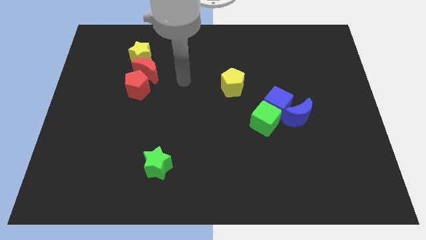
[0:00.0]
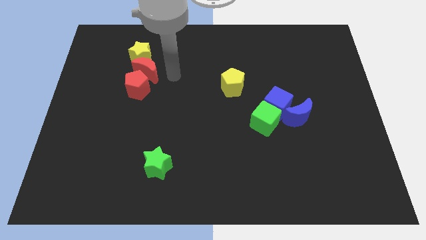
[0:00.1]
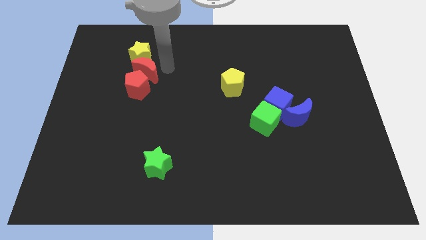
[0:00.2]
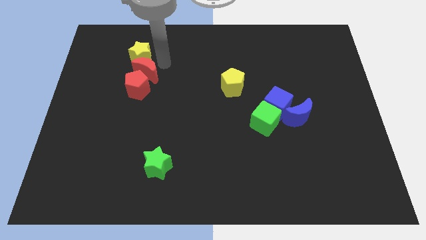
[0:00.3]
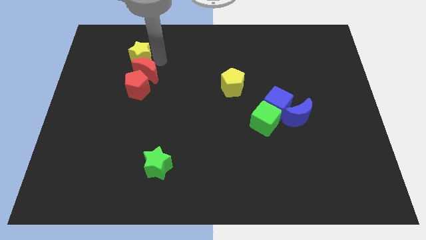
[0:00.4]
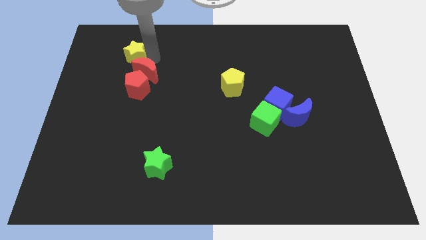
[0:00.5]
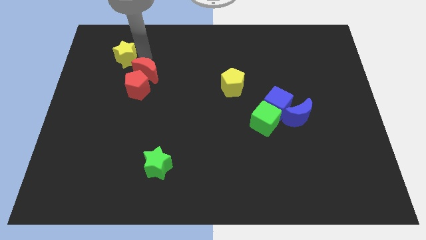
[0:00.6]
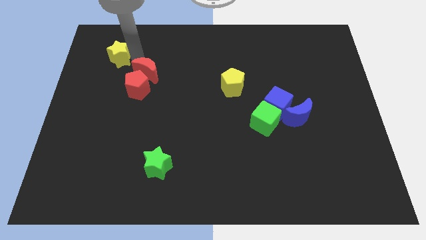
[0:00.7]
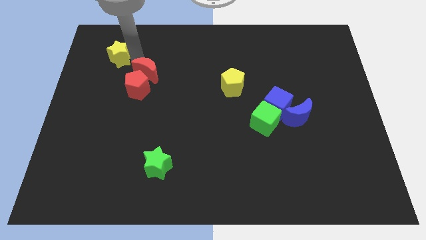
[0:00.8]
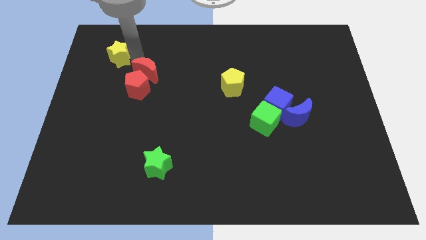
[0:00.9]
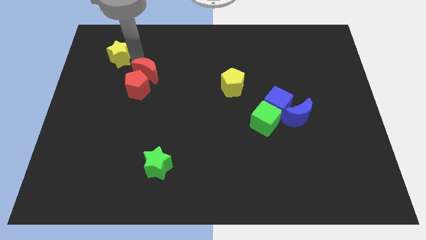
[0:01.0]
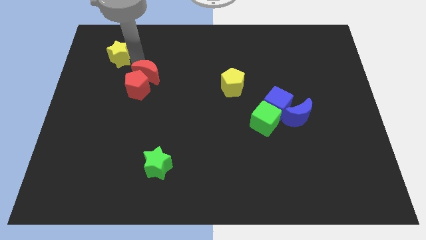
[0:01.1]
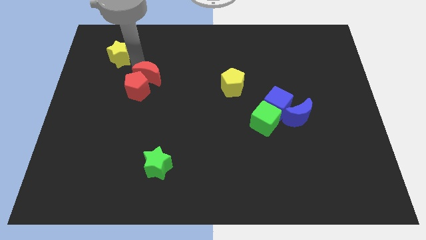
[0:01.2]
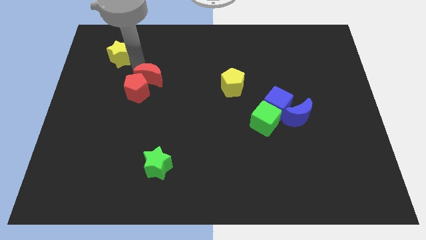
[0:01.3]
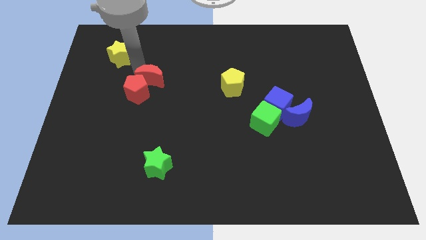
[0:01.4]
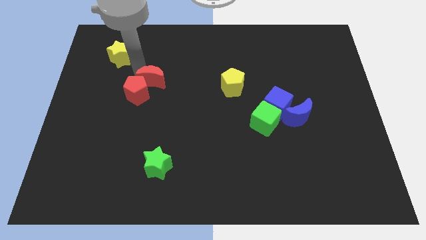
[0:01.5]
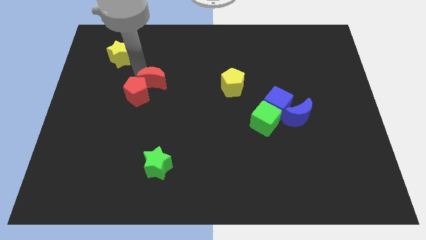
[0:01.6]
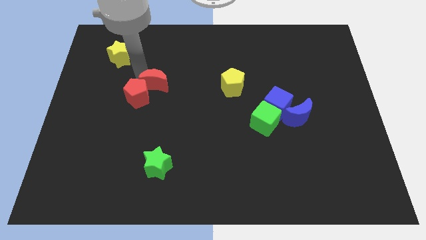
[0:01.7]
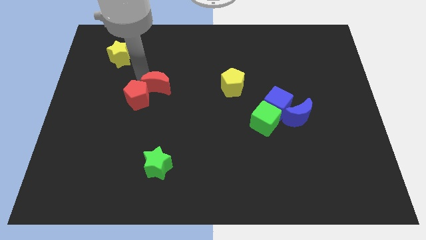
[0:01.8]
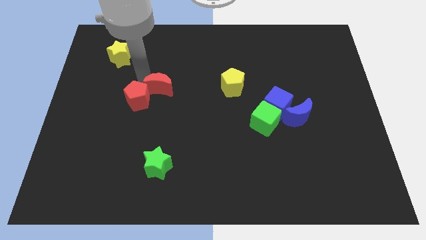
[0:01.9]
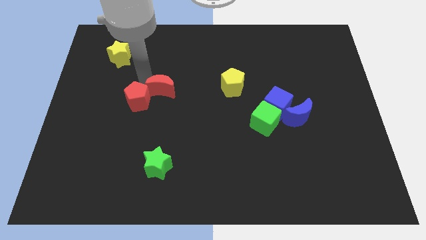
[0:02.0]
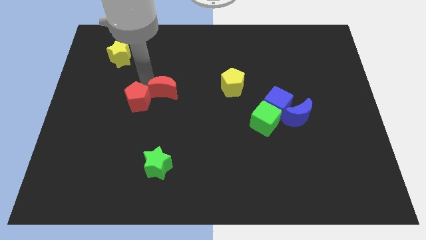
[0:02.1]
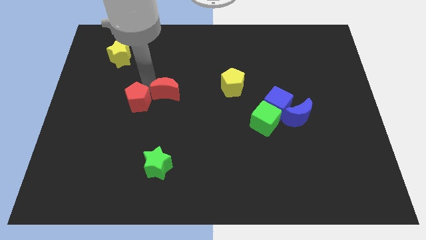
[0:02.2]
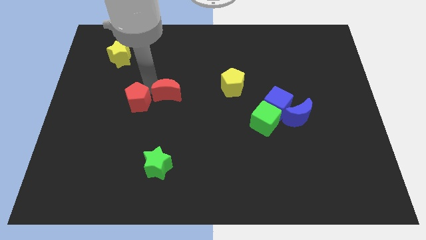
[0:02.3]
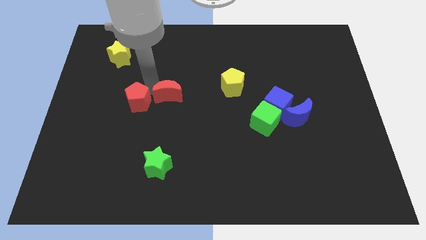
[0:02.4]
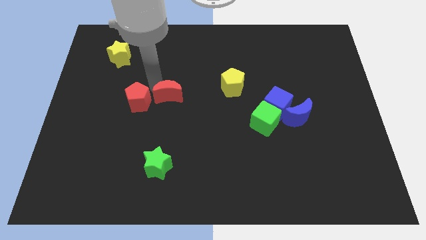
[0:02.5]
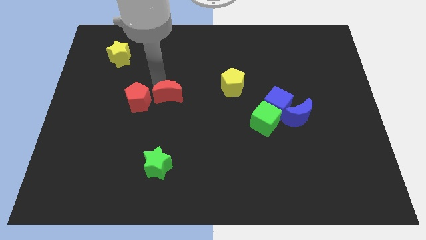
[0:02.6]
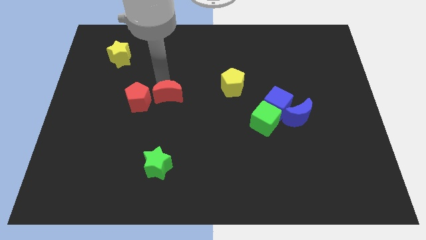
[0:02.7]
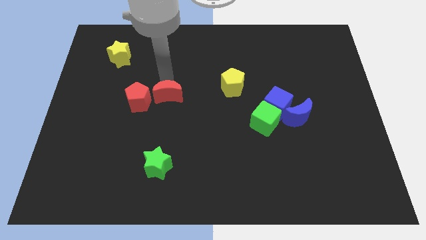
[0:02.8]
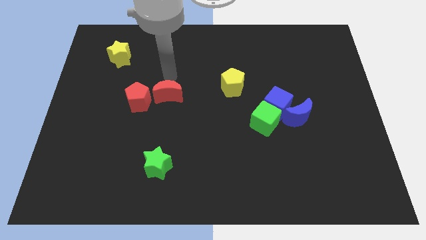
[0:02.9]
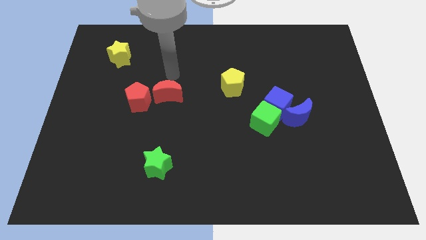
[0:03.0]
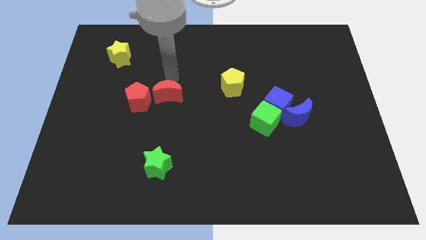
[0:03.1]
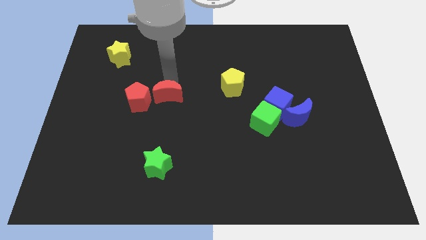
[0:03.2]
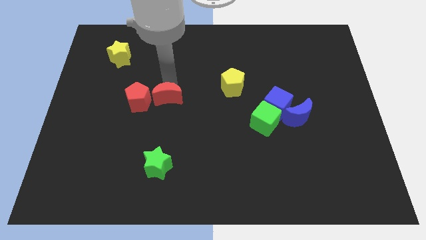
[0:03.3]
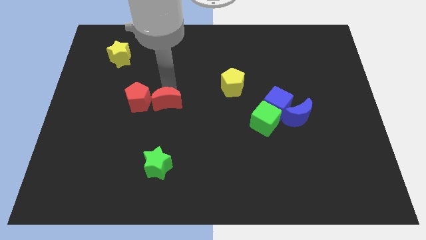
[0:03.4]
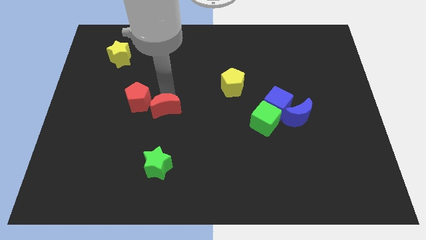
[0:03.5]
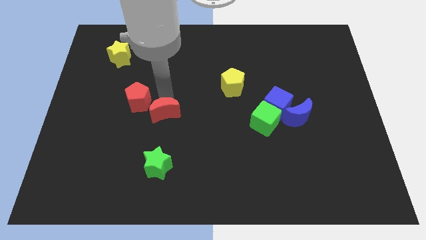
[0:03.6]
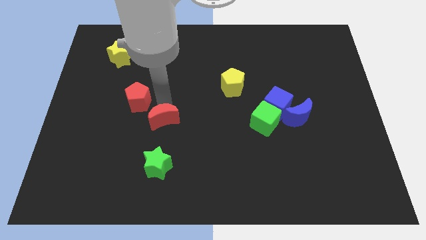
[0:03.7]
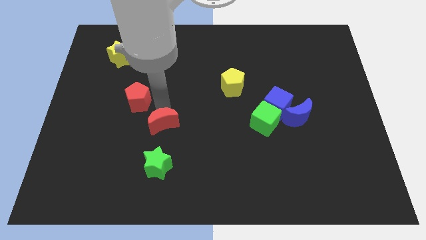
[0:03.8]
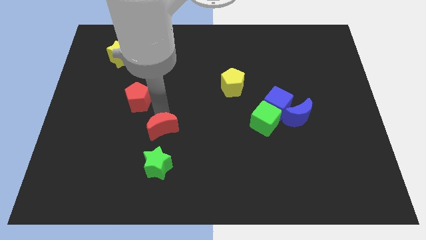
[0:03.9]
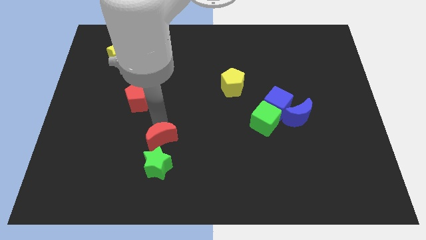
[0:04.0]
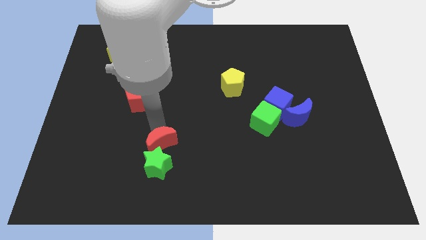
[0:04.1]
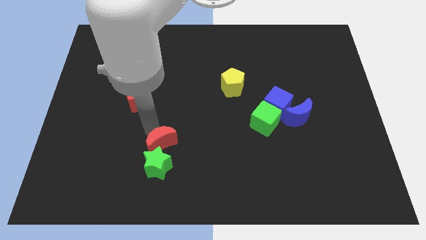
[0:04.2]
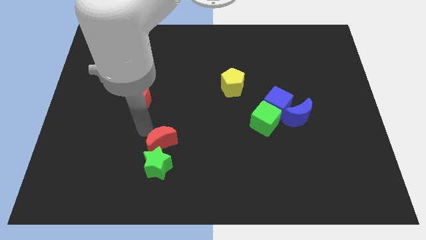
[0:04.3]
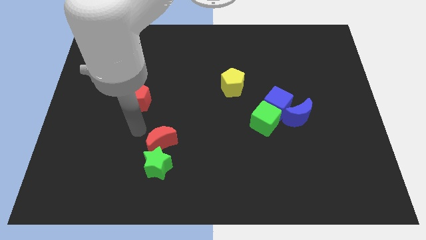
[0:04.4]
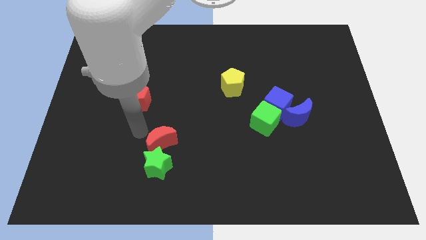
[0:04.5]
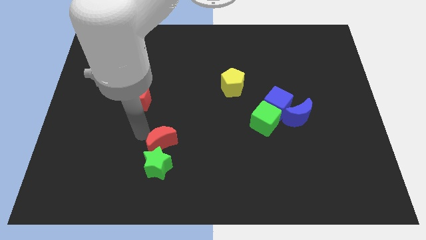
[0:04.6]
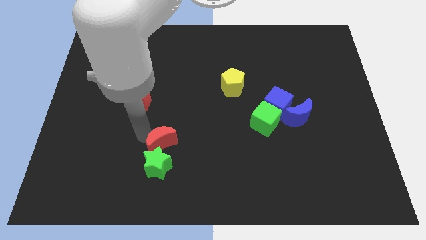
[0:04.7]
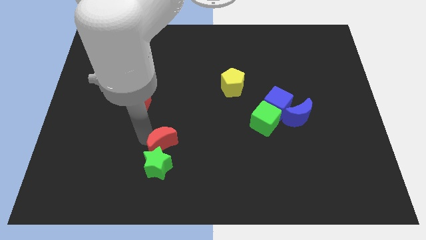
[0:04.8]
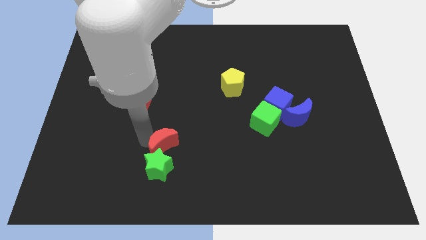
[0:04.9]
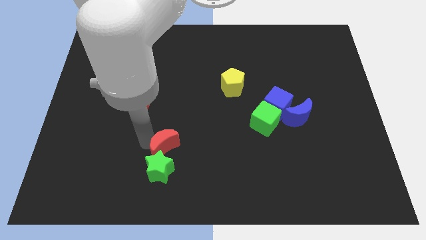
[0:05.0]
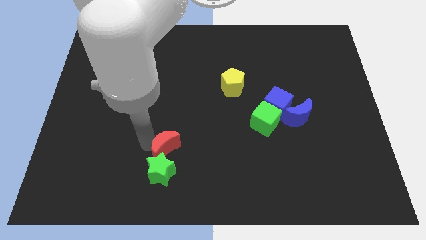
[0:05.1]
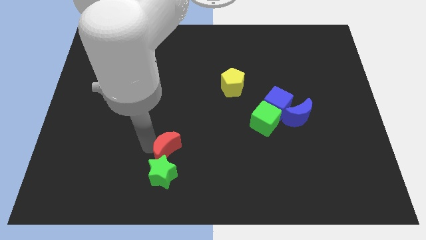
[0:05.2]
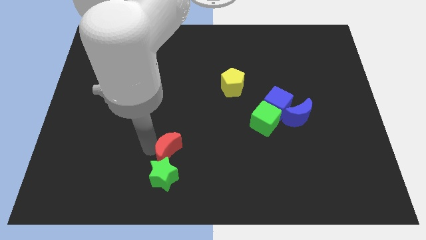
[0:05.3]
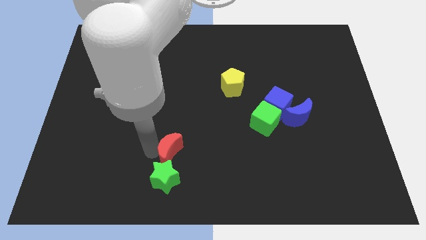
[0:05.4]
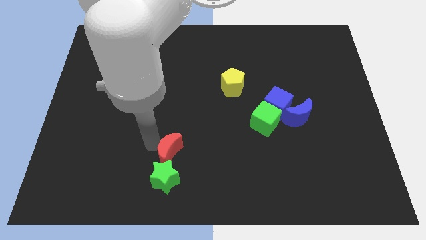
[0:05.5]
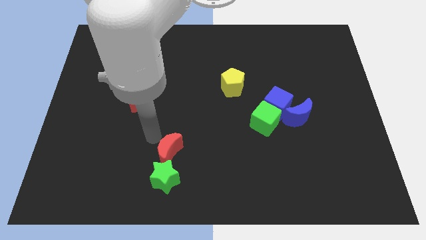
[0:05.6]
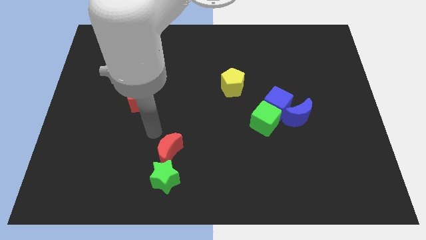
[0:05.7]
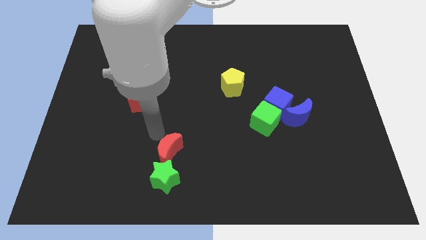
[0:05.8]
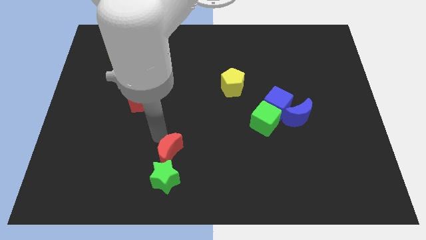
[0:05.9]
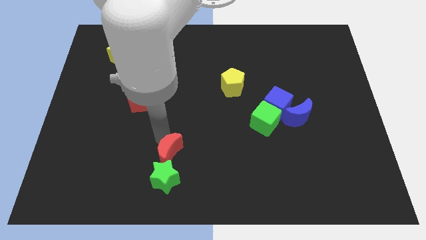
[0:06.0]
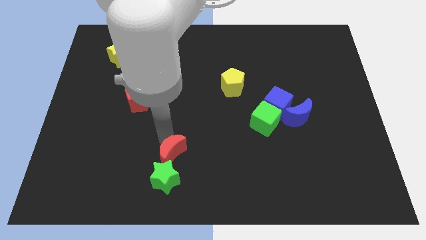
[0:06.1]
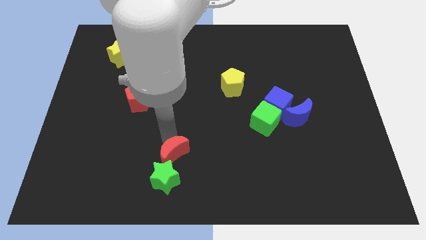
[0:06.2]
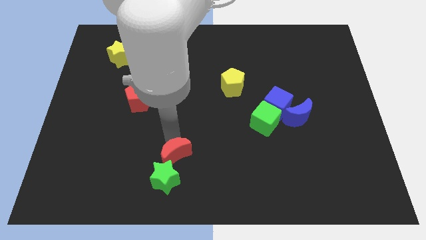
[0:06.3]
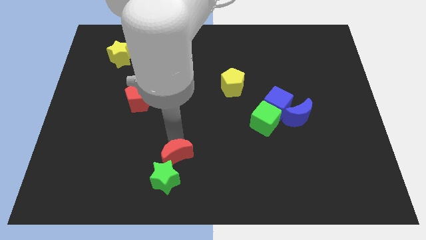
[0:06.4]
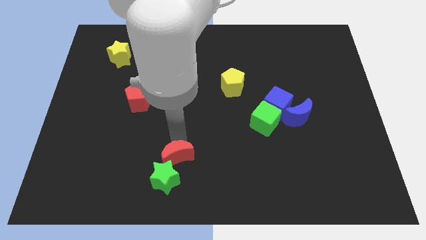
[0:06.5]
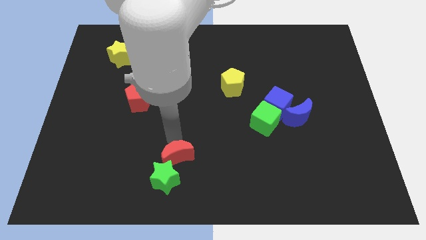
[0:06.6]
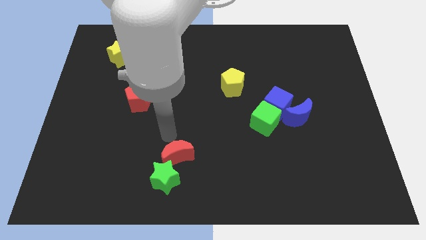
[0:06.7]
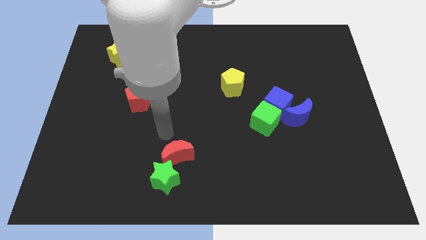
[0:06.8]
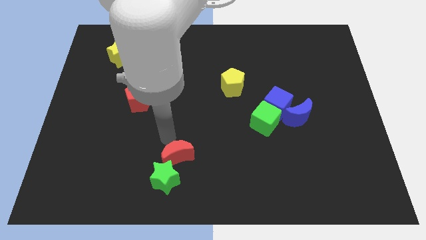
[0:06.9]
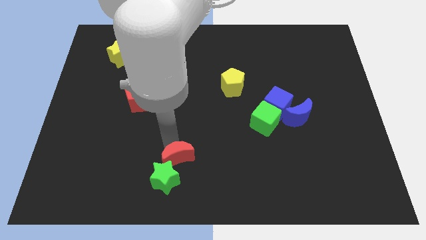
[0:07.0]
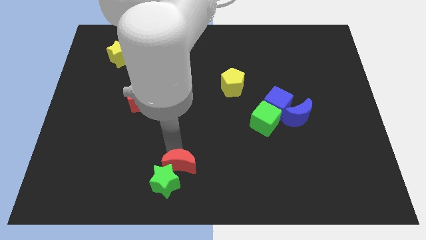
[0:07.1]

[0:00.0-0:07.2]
put the red moon to the bottom side
